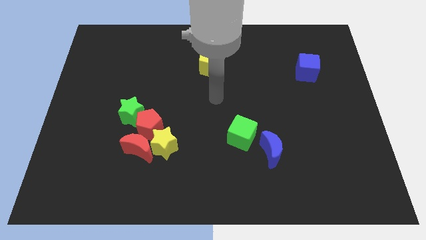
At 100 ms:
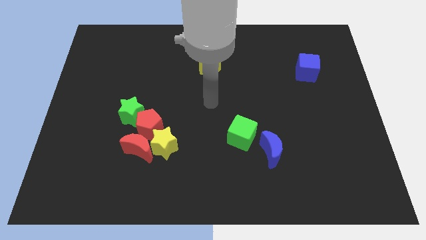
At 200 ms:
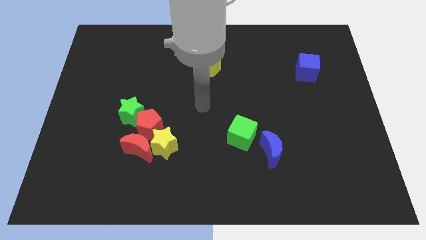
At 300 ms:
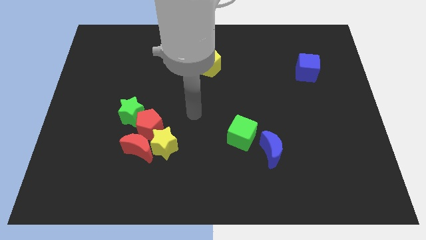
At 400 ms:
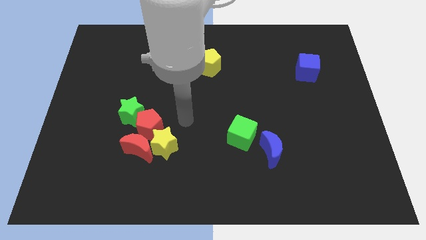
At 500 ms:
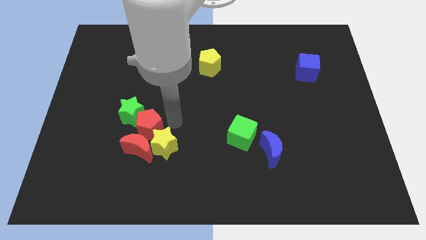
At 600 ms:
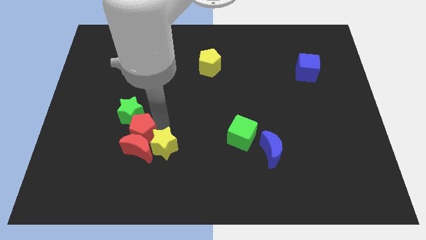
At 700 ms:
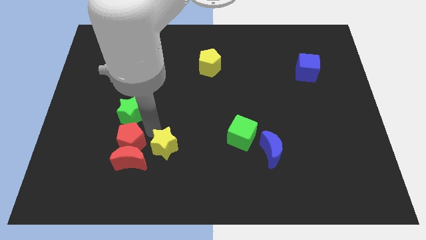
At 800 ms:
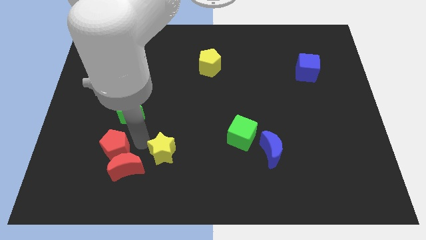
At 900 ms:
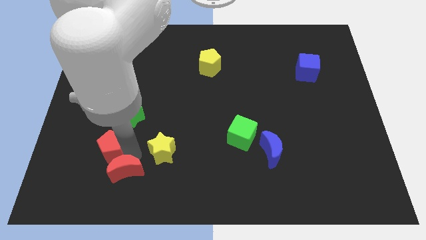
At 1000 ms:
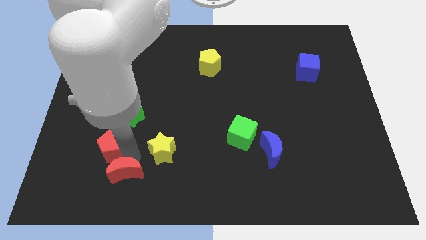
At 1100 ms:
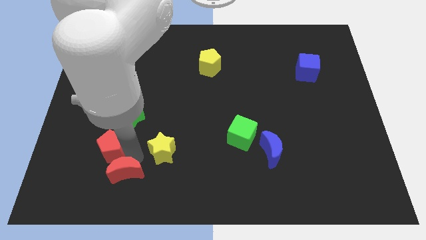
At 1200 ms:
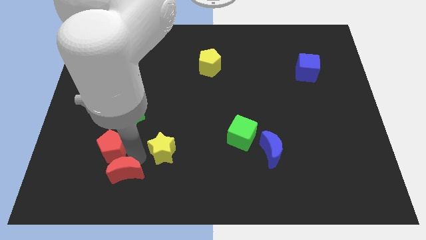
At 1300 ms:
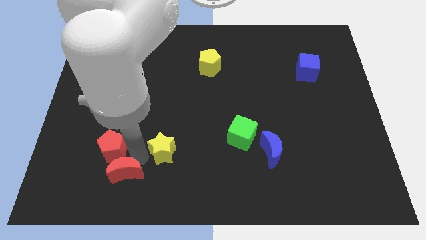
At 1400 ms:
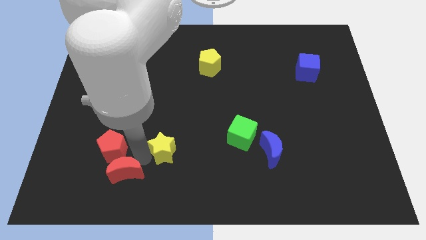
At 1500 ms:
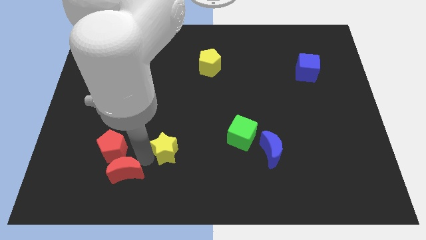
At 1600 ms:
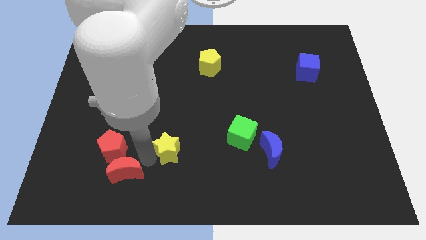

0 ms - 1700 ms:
pull the yellow star apart from the red moon and red pentagon

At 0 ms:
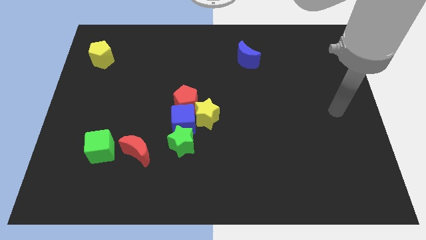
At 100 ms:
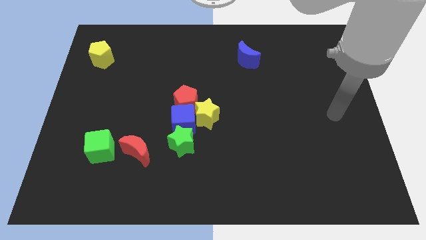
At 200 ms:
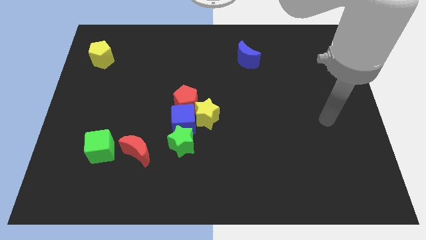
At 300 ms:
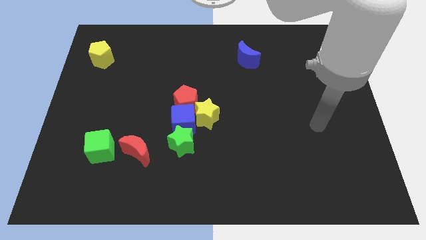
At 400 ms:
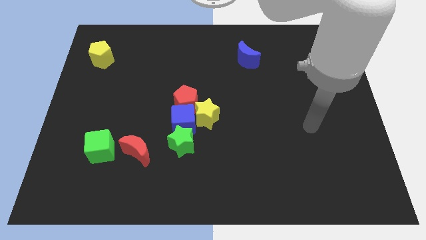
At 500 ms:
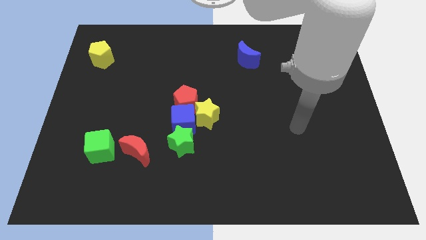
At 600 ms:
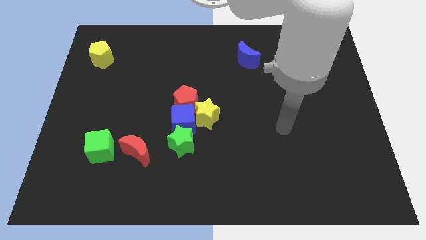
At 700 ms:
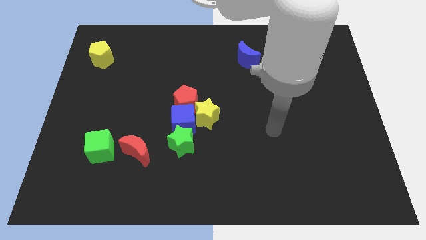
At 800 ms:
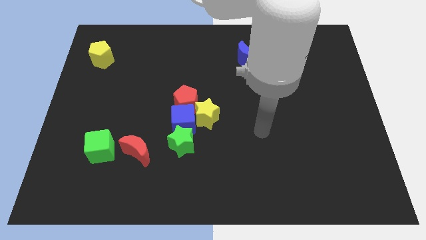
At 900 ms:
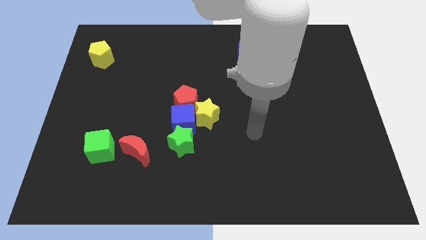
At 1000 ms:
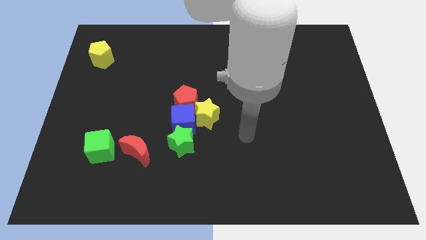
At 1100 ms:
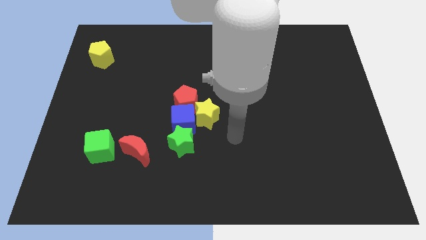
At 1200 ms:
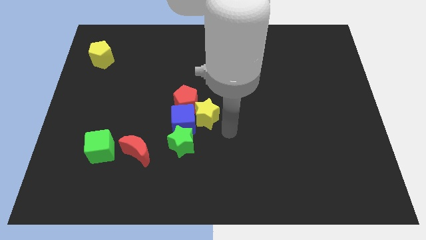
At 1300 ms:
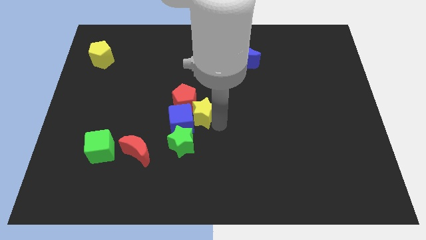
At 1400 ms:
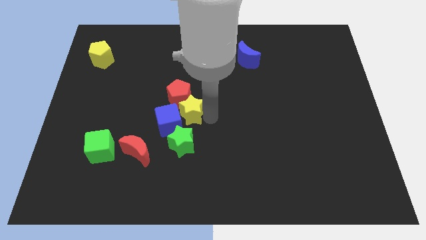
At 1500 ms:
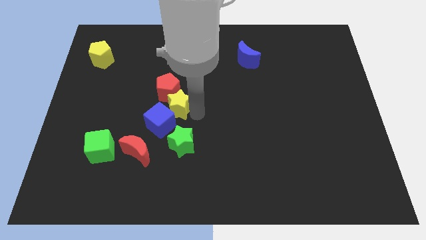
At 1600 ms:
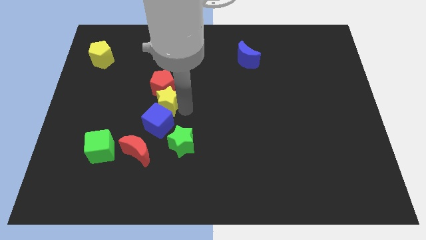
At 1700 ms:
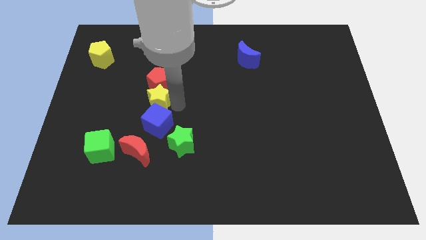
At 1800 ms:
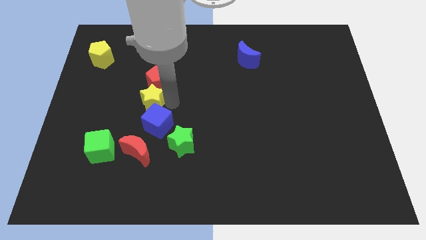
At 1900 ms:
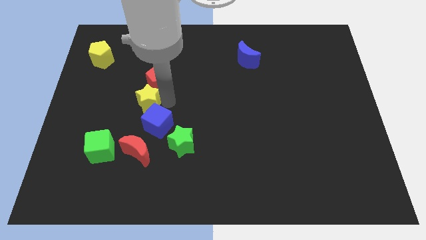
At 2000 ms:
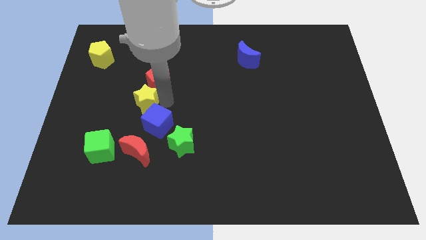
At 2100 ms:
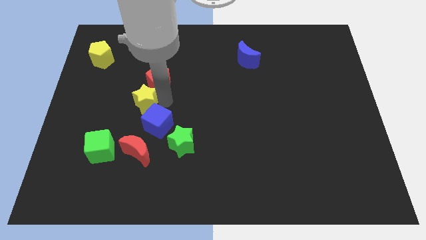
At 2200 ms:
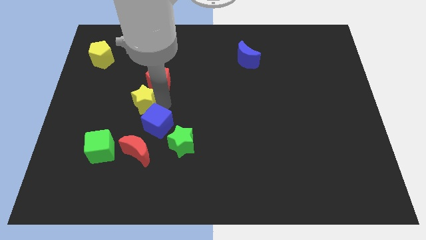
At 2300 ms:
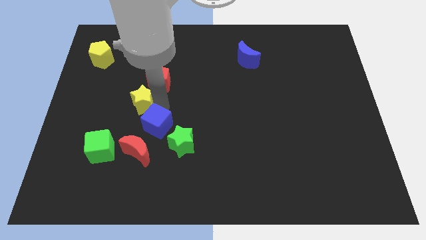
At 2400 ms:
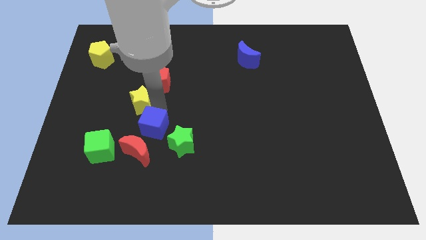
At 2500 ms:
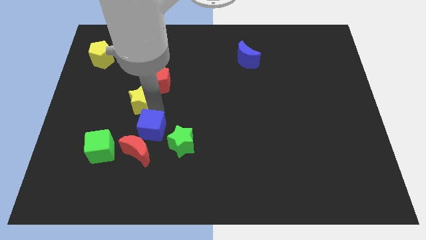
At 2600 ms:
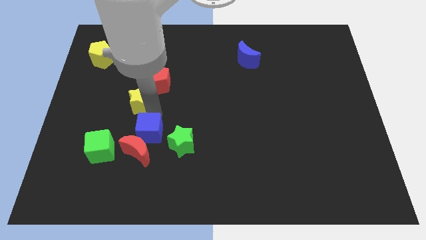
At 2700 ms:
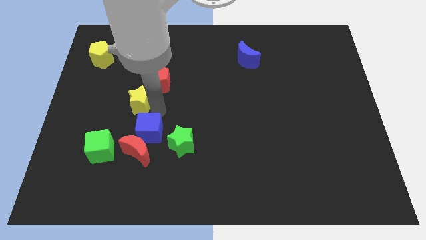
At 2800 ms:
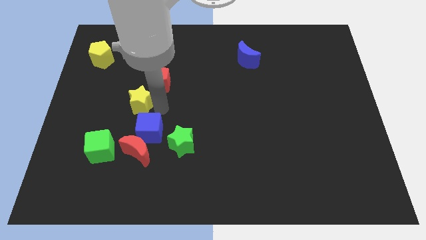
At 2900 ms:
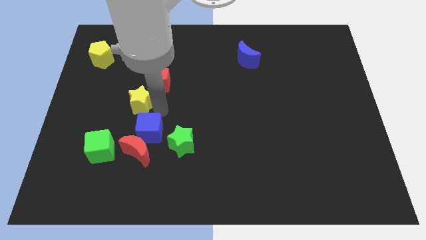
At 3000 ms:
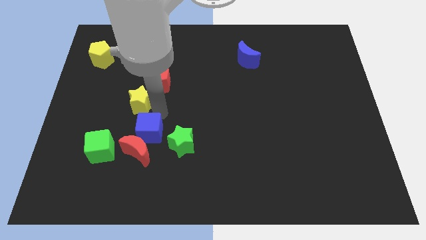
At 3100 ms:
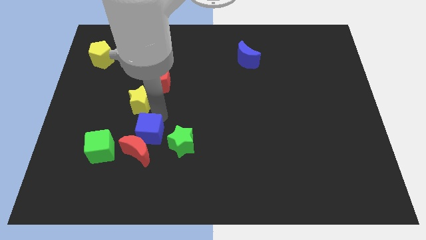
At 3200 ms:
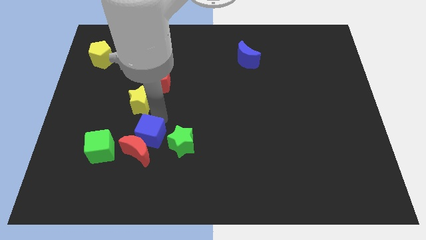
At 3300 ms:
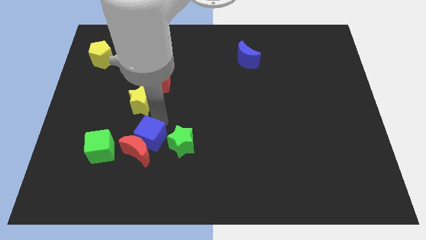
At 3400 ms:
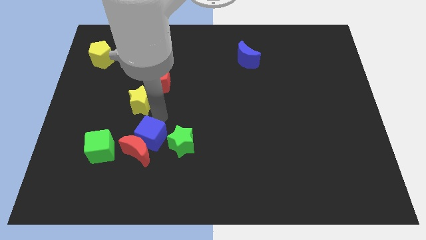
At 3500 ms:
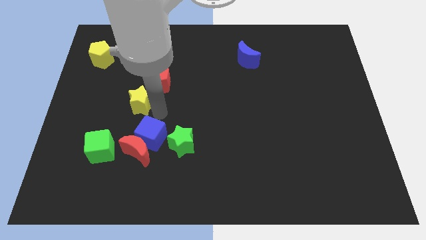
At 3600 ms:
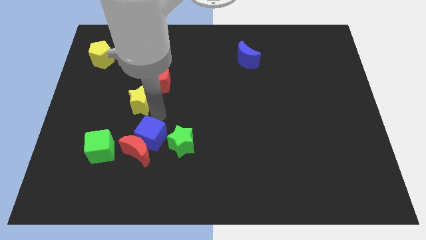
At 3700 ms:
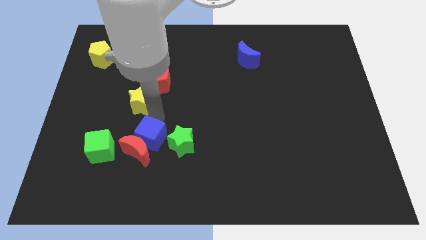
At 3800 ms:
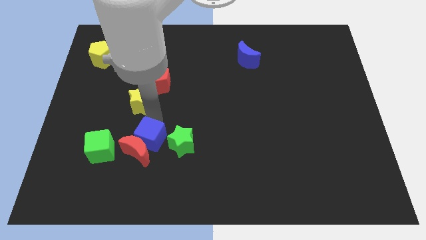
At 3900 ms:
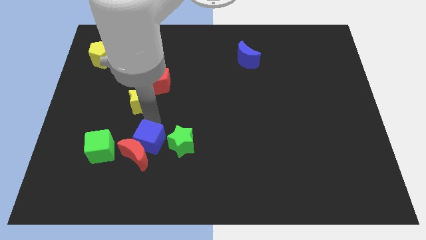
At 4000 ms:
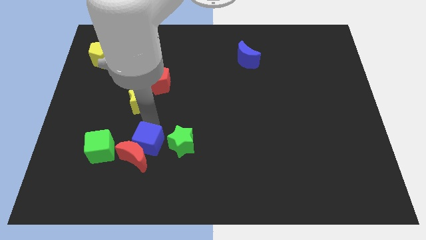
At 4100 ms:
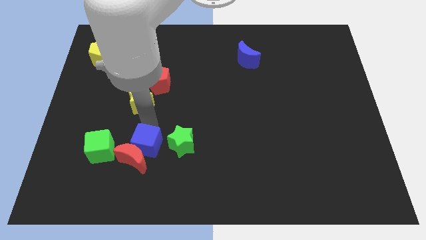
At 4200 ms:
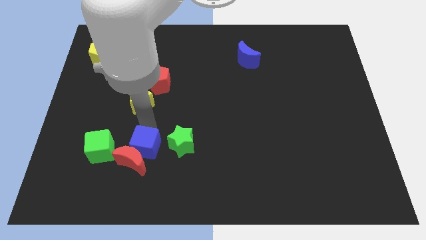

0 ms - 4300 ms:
separate the blue cube from the yellow star, red pentagon, and green star

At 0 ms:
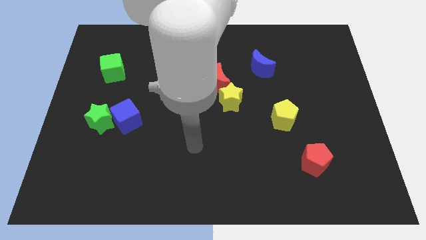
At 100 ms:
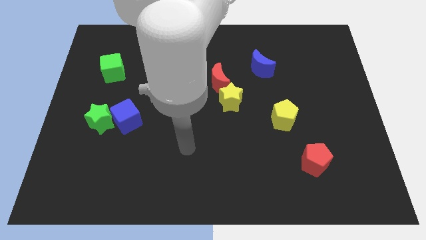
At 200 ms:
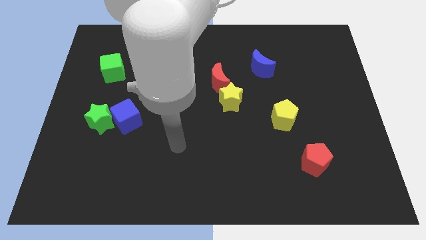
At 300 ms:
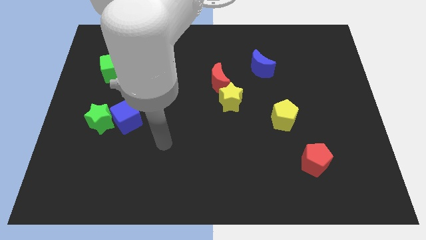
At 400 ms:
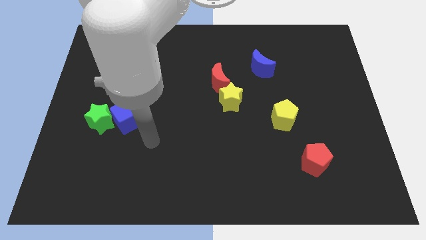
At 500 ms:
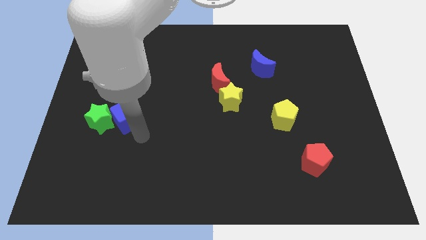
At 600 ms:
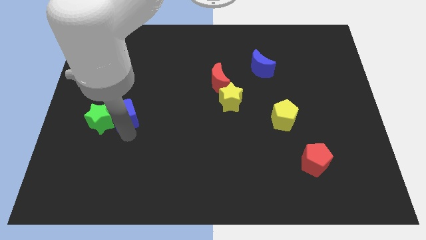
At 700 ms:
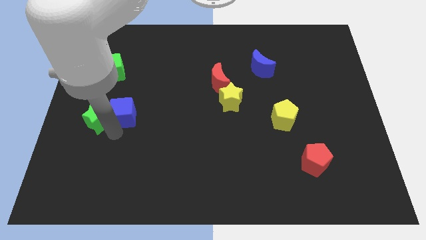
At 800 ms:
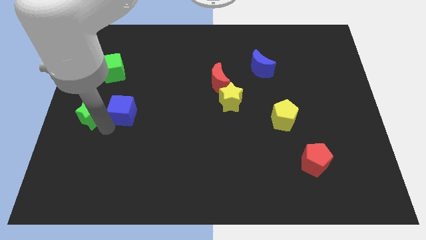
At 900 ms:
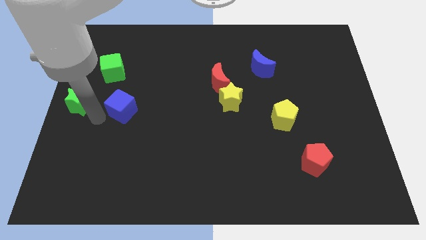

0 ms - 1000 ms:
move the blue cube away from the green star

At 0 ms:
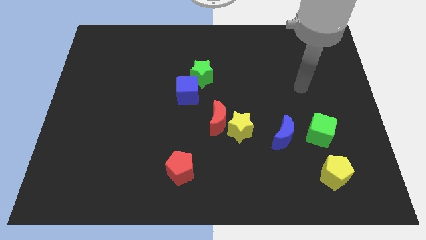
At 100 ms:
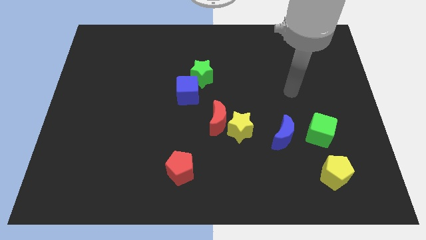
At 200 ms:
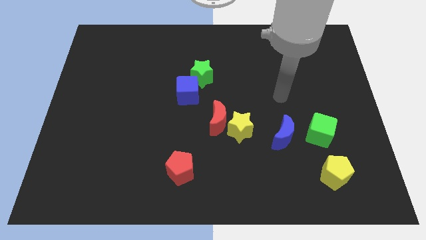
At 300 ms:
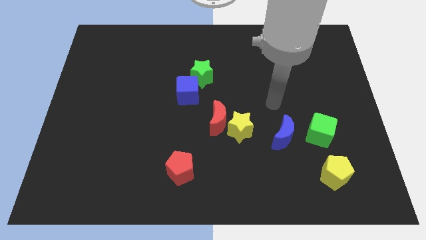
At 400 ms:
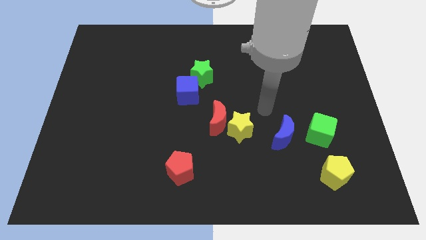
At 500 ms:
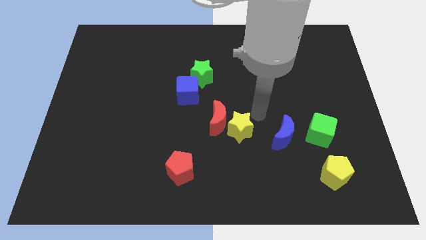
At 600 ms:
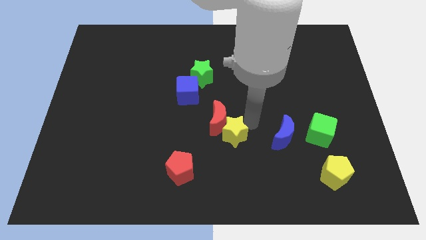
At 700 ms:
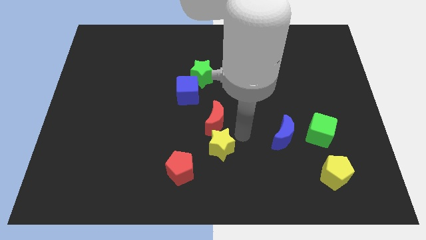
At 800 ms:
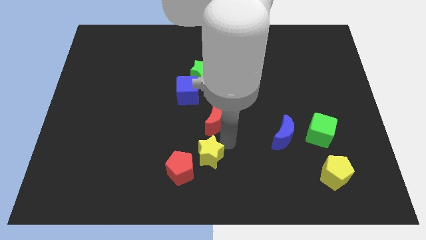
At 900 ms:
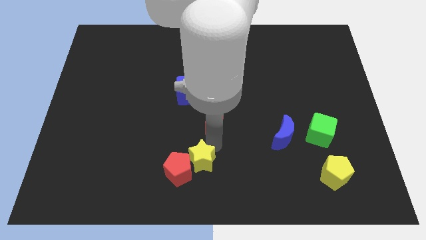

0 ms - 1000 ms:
move the red moon away from the yellow star

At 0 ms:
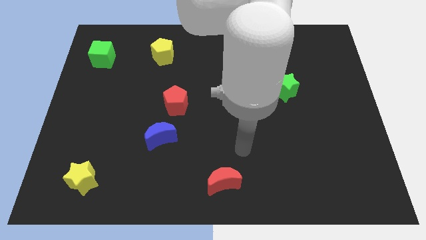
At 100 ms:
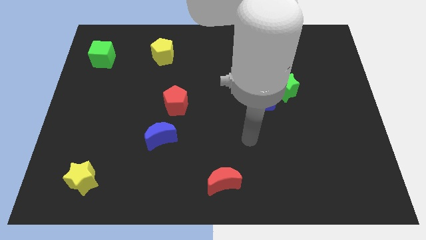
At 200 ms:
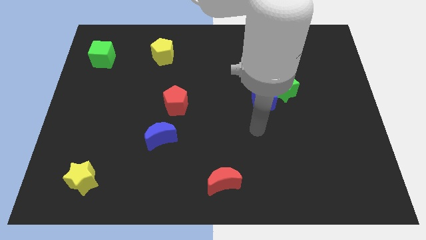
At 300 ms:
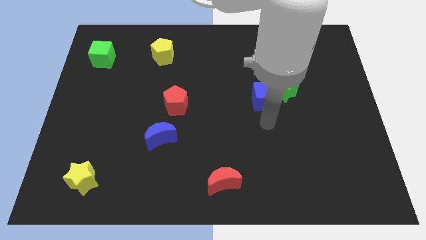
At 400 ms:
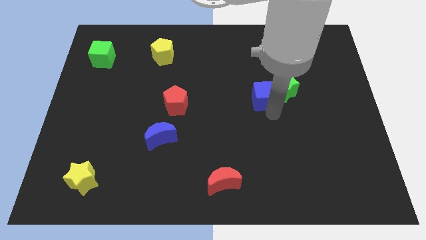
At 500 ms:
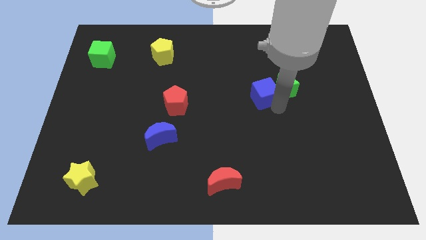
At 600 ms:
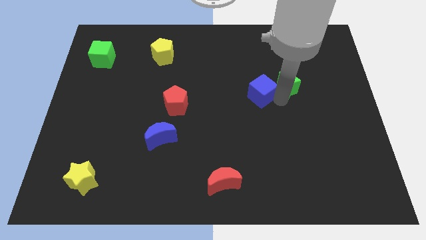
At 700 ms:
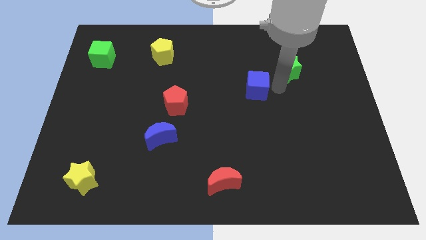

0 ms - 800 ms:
pull the blue cube apart from the green star

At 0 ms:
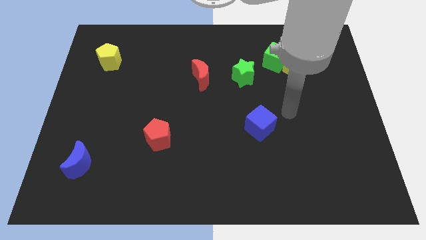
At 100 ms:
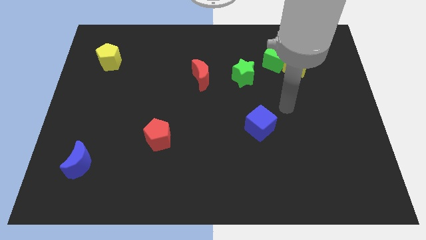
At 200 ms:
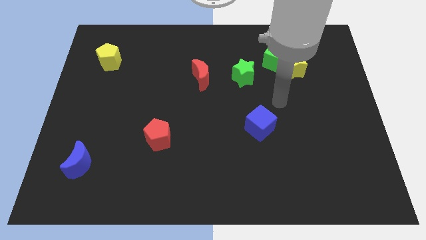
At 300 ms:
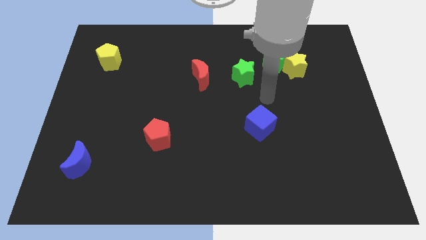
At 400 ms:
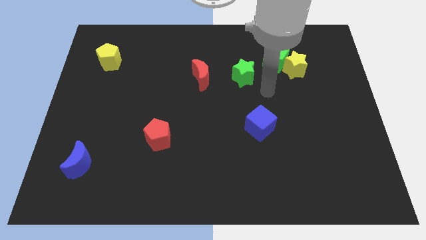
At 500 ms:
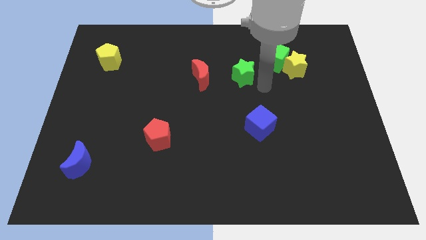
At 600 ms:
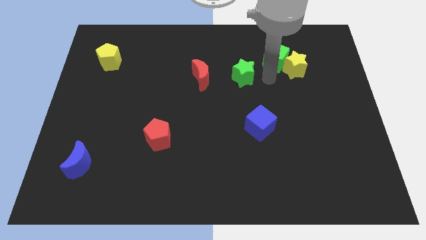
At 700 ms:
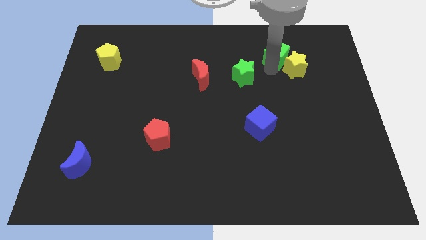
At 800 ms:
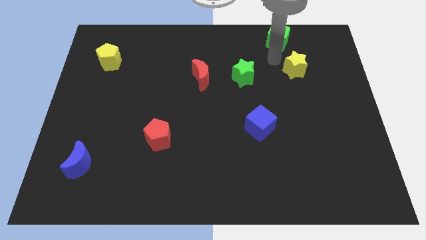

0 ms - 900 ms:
separate the yellow star from the green cube
